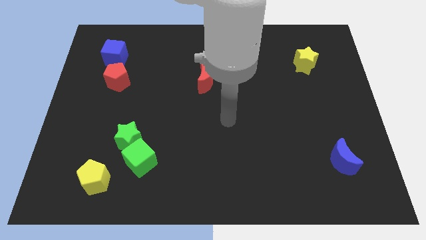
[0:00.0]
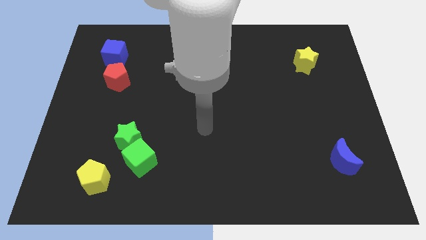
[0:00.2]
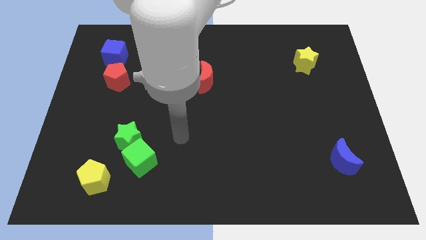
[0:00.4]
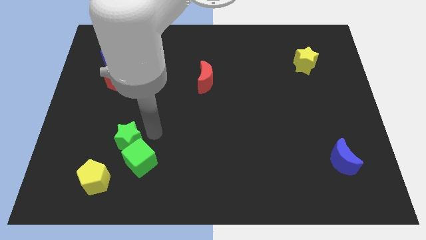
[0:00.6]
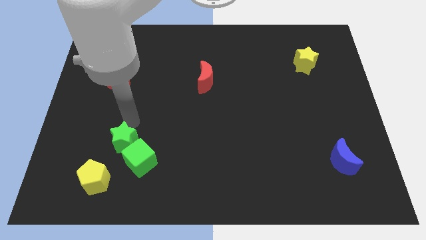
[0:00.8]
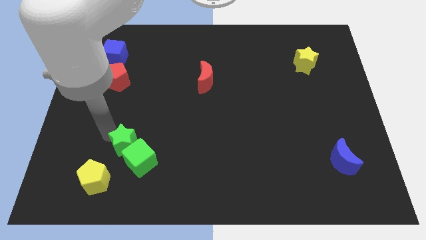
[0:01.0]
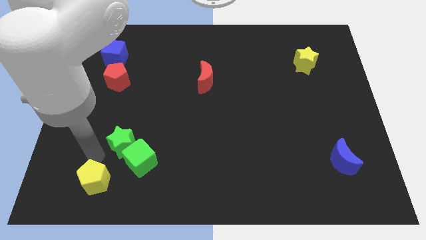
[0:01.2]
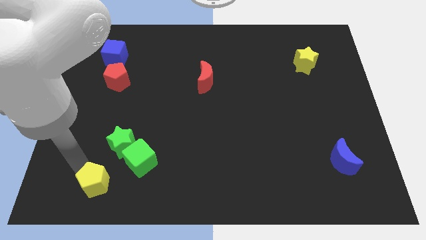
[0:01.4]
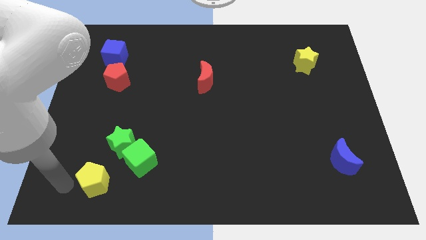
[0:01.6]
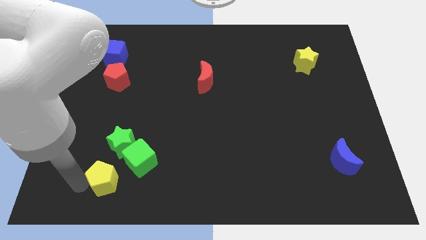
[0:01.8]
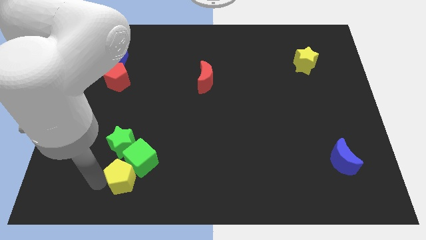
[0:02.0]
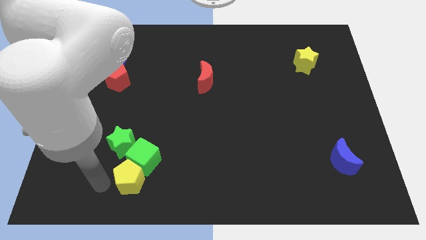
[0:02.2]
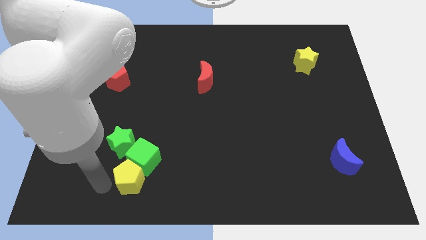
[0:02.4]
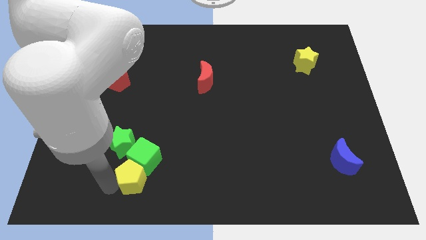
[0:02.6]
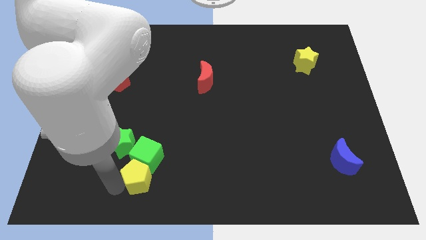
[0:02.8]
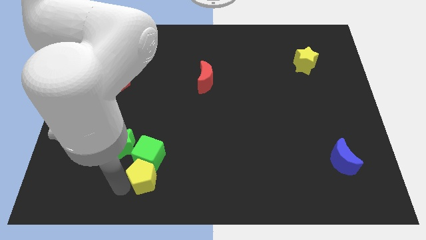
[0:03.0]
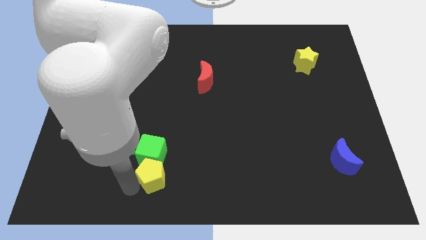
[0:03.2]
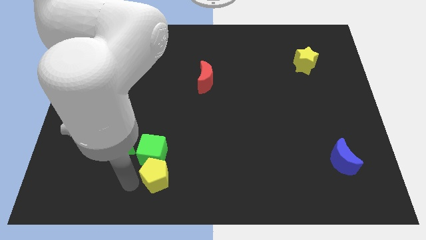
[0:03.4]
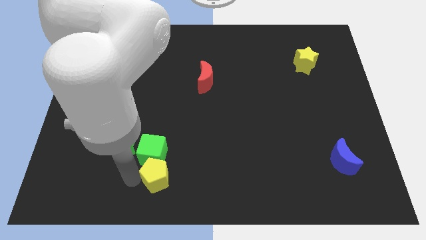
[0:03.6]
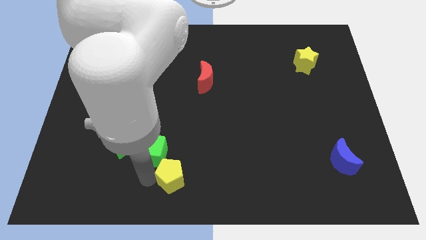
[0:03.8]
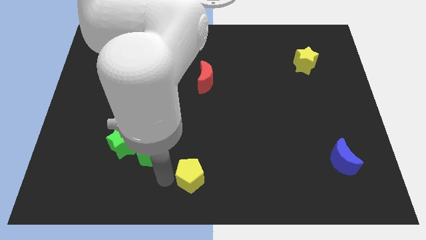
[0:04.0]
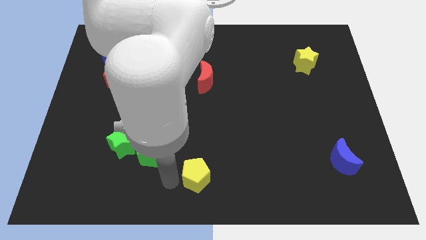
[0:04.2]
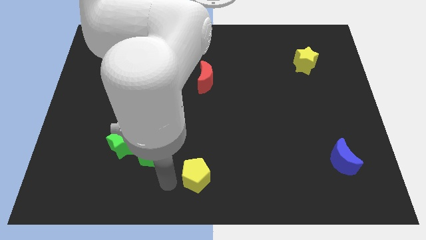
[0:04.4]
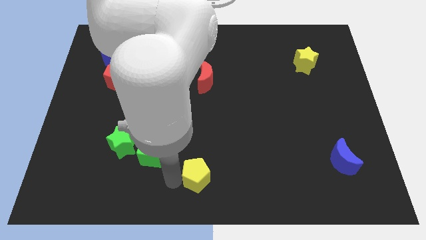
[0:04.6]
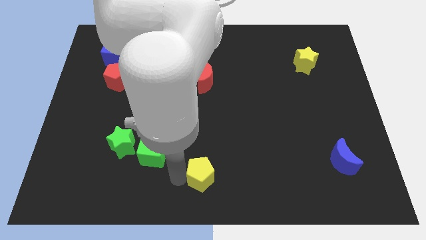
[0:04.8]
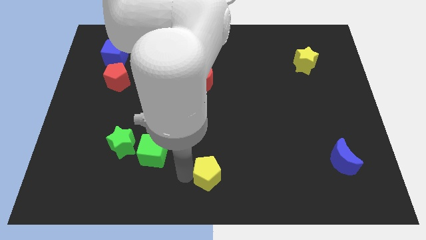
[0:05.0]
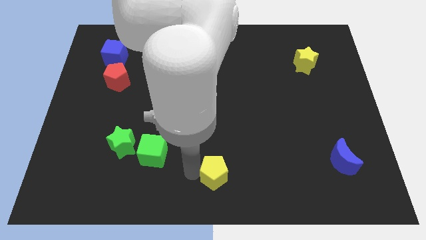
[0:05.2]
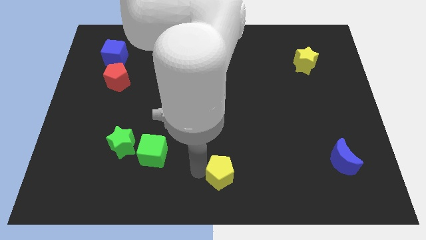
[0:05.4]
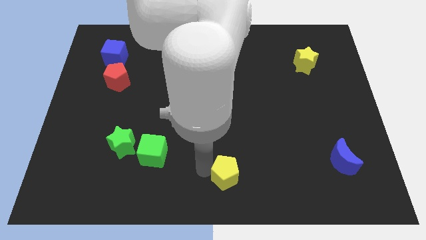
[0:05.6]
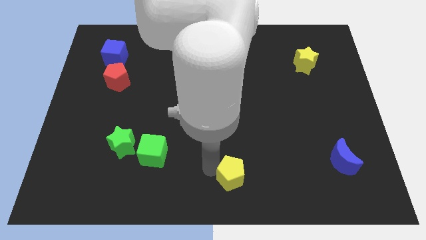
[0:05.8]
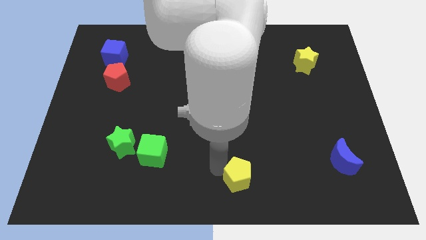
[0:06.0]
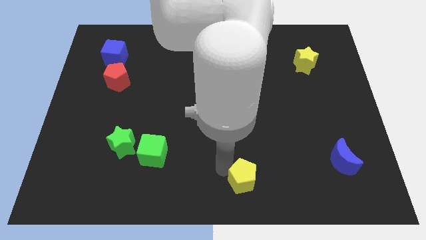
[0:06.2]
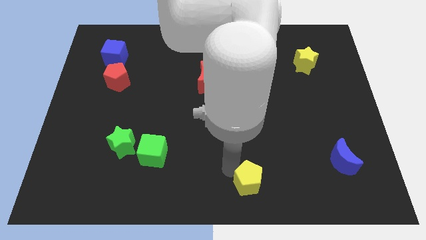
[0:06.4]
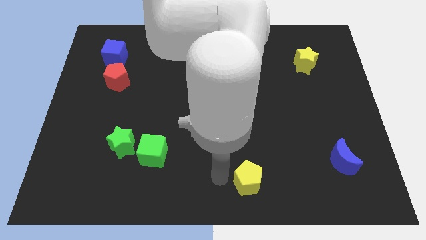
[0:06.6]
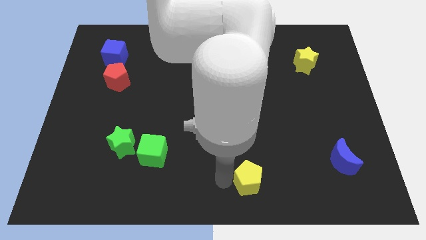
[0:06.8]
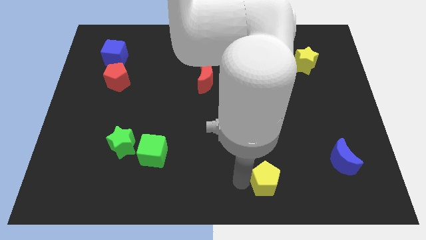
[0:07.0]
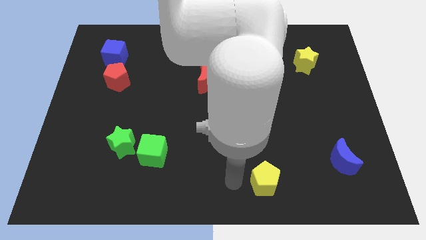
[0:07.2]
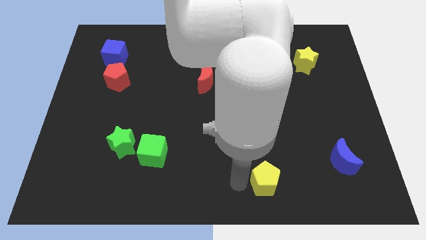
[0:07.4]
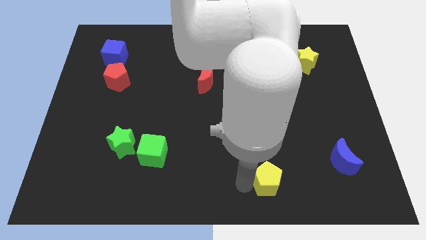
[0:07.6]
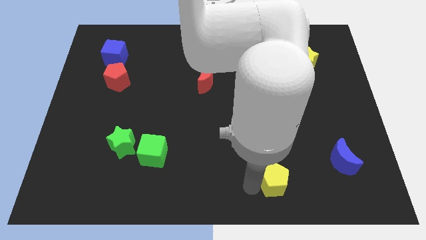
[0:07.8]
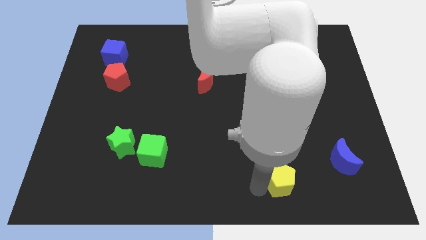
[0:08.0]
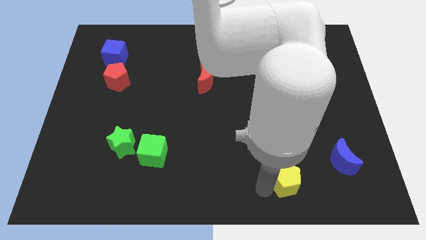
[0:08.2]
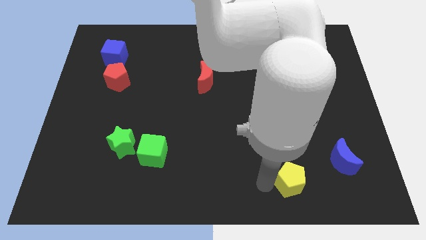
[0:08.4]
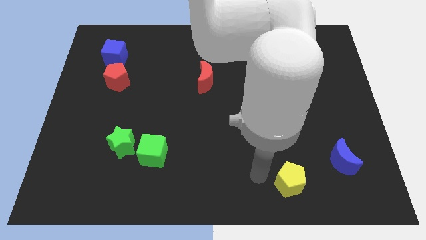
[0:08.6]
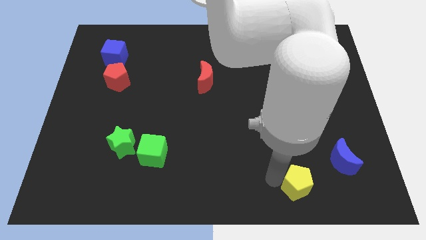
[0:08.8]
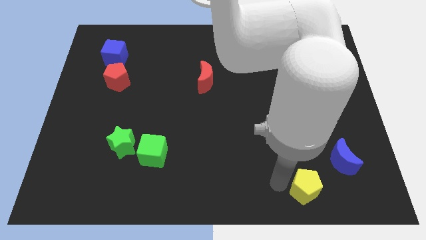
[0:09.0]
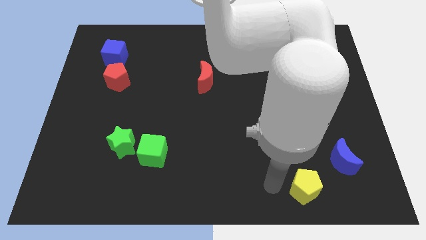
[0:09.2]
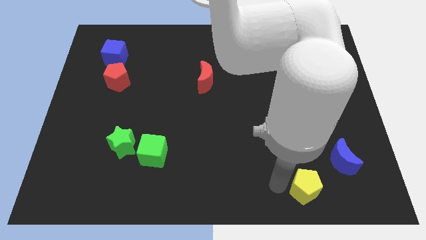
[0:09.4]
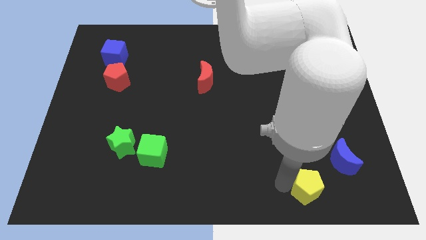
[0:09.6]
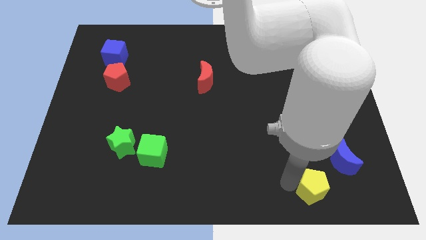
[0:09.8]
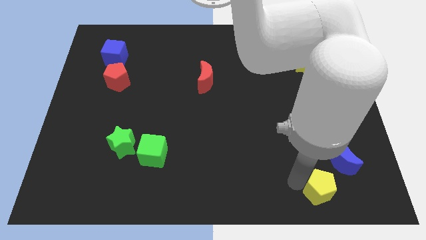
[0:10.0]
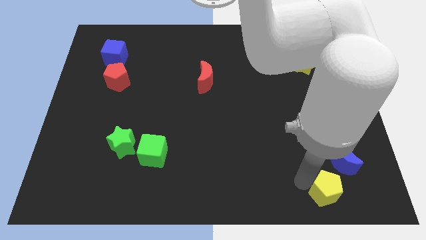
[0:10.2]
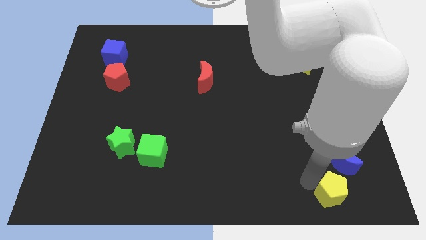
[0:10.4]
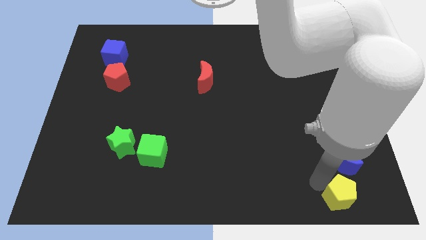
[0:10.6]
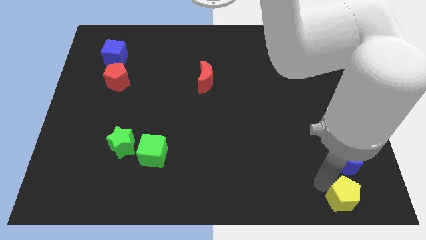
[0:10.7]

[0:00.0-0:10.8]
push the yellow pentagon to the lower right corner

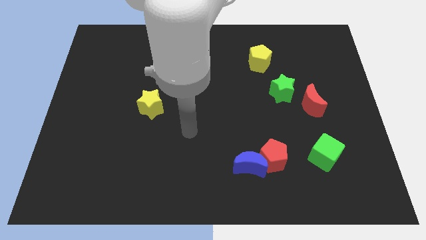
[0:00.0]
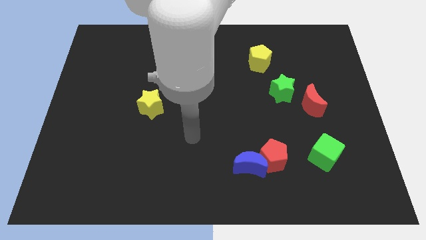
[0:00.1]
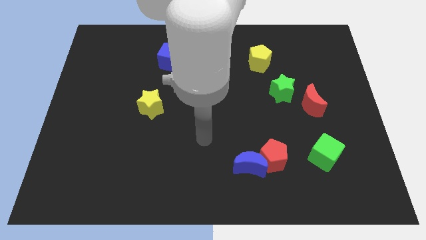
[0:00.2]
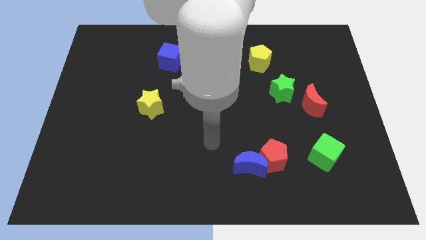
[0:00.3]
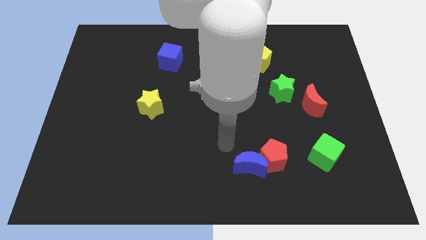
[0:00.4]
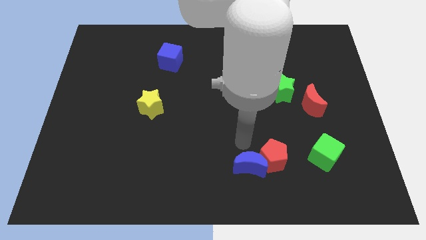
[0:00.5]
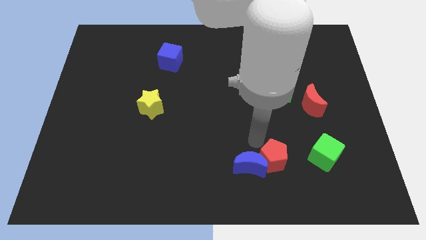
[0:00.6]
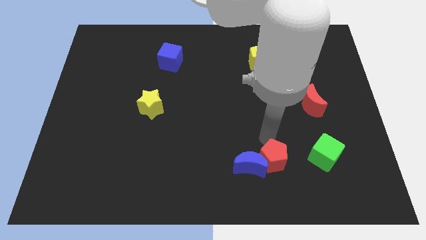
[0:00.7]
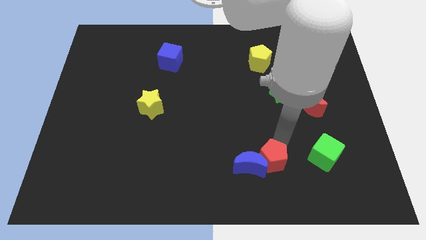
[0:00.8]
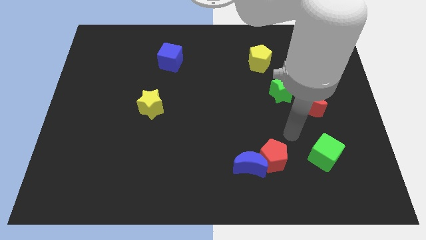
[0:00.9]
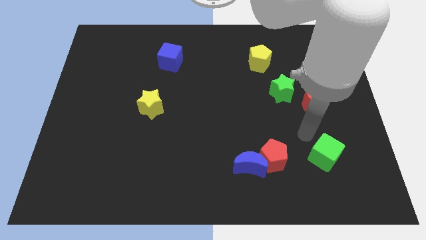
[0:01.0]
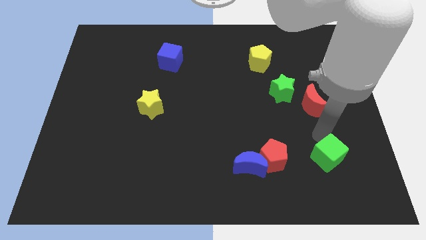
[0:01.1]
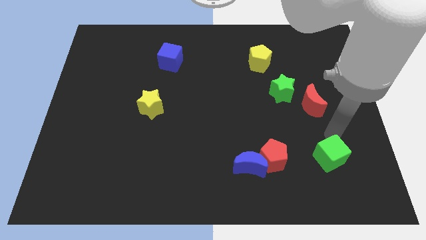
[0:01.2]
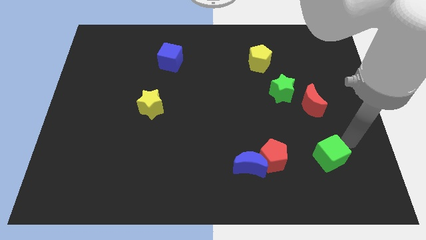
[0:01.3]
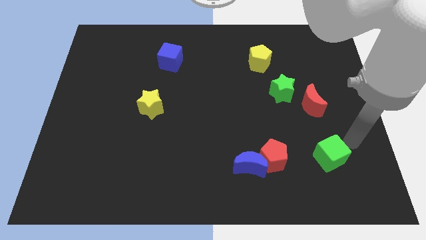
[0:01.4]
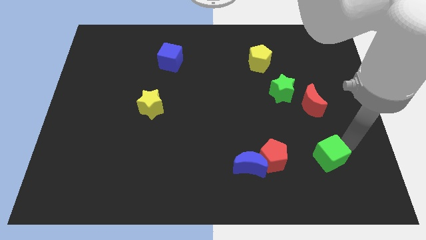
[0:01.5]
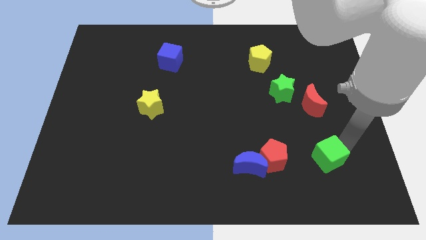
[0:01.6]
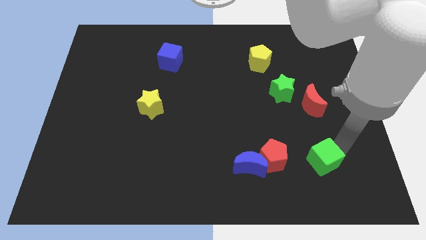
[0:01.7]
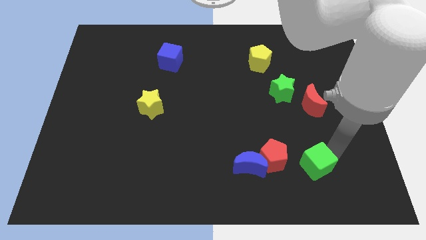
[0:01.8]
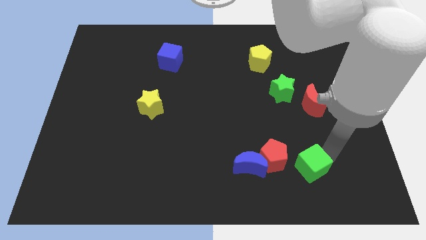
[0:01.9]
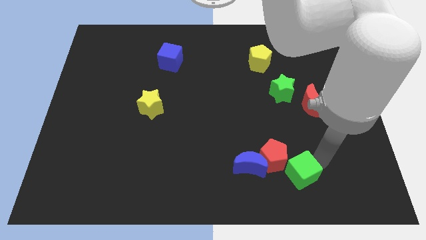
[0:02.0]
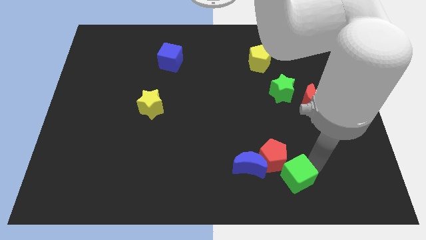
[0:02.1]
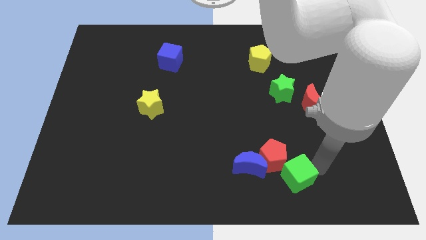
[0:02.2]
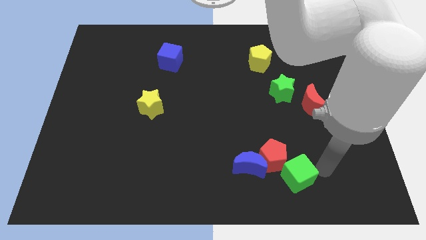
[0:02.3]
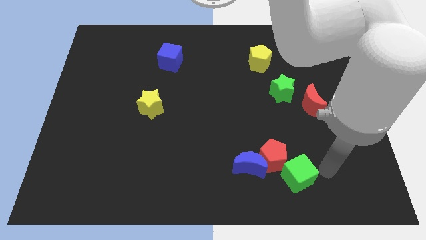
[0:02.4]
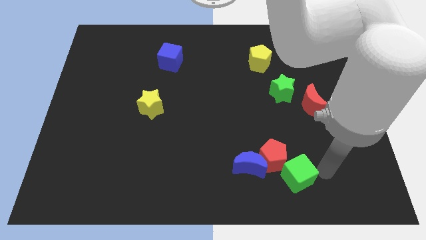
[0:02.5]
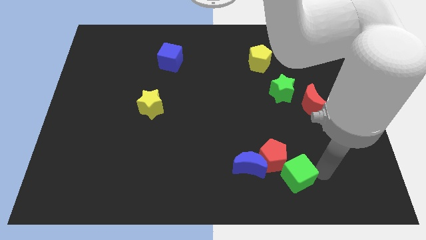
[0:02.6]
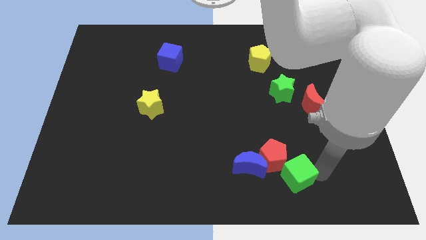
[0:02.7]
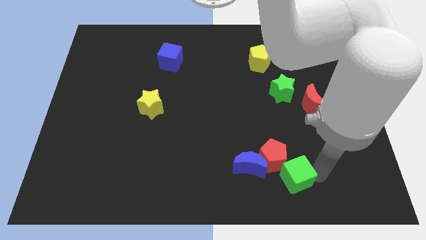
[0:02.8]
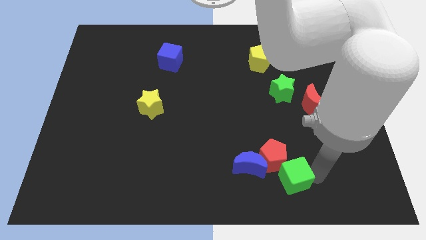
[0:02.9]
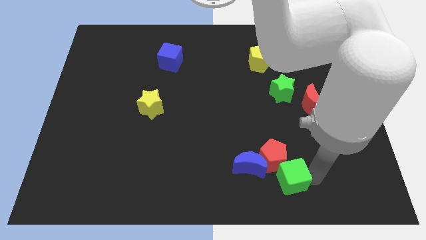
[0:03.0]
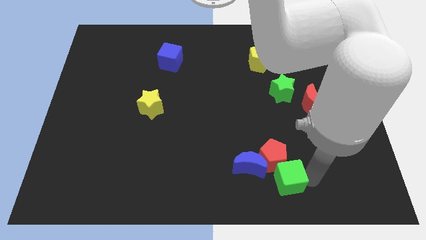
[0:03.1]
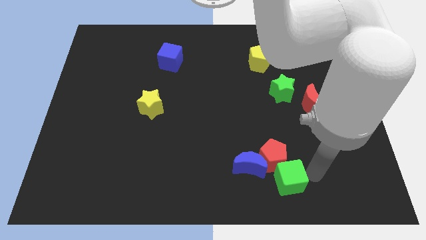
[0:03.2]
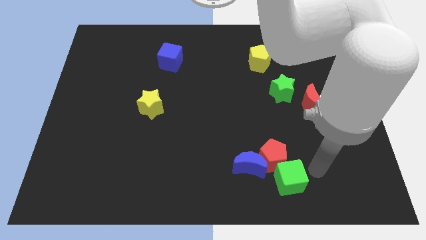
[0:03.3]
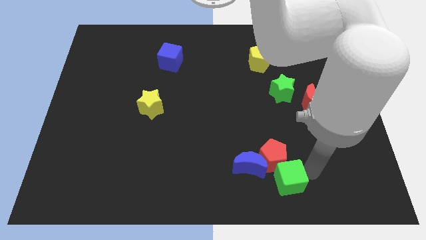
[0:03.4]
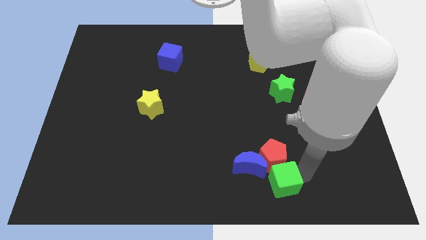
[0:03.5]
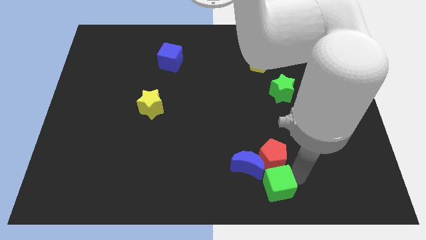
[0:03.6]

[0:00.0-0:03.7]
move the green cube to the bottom
